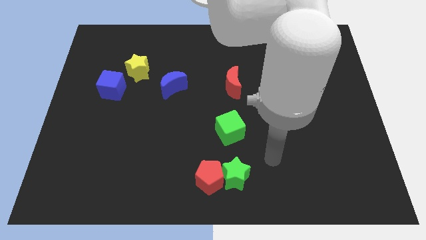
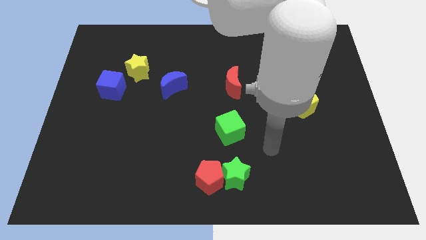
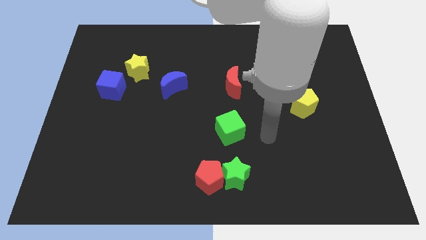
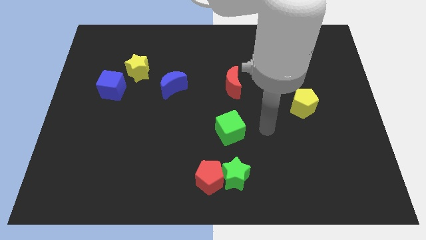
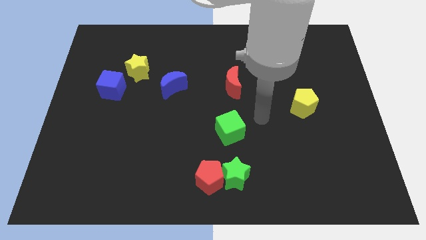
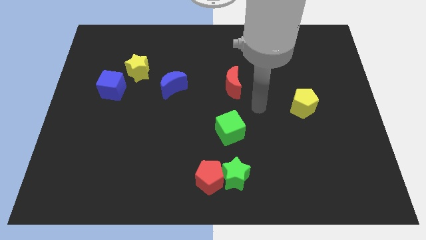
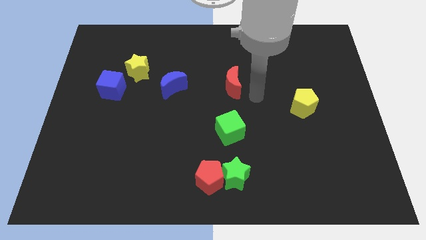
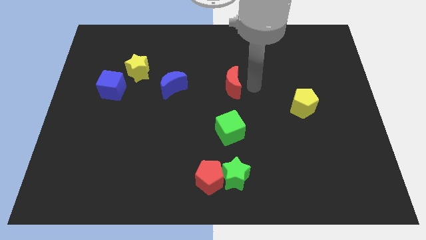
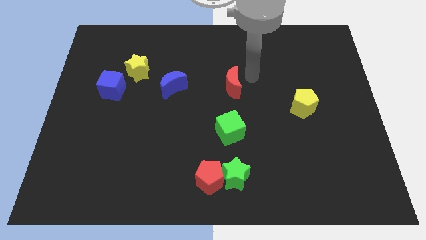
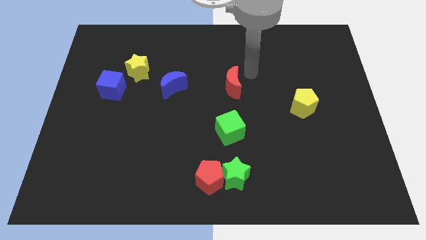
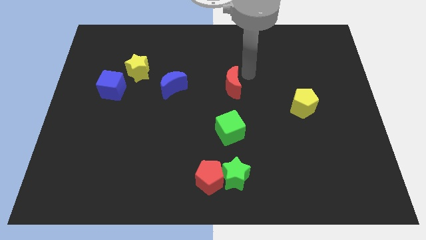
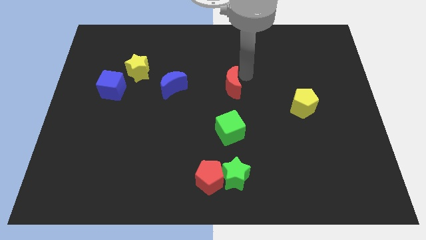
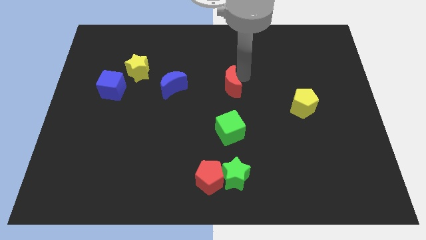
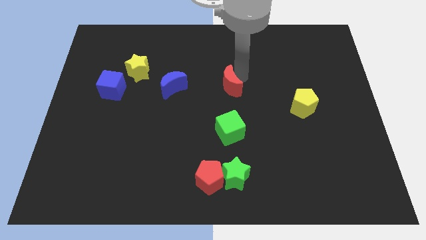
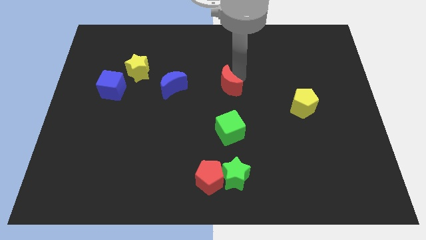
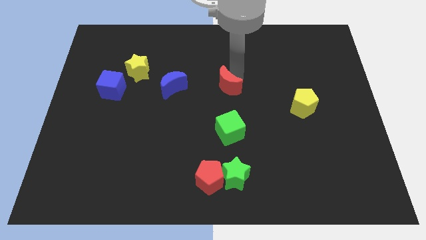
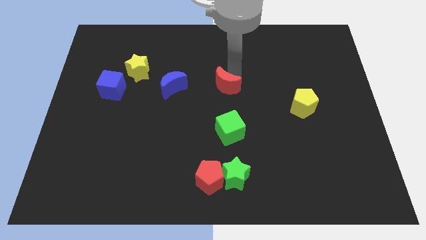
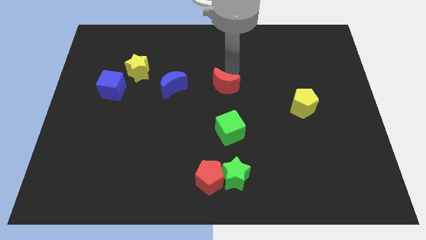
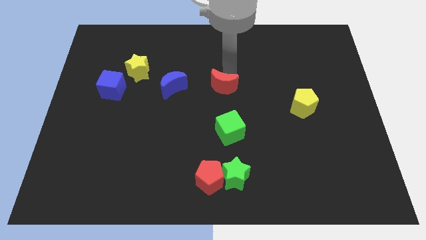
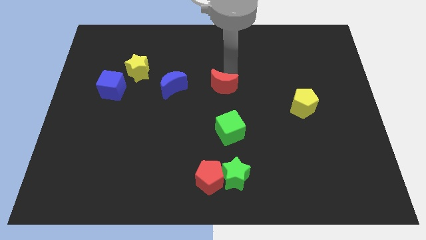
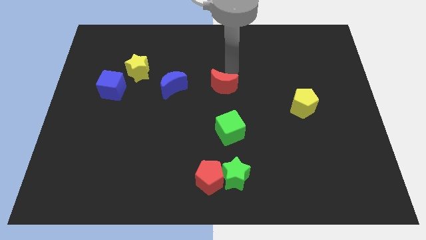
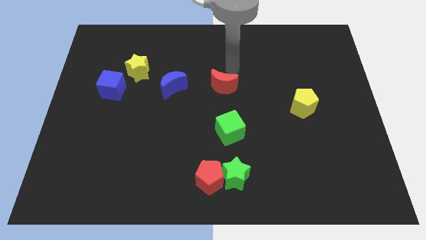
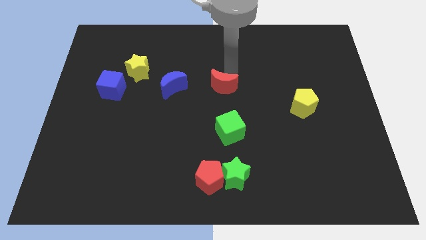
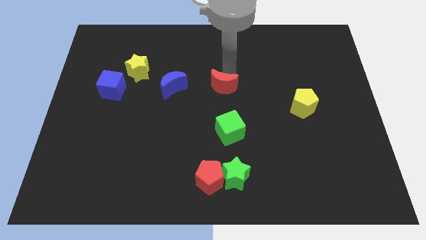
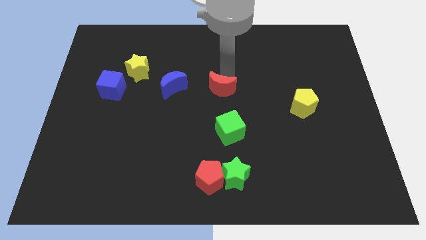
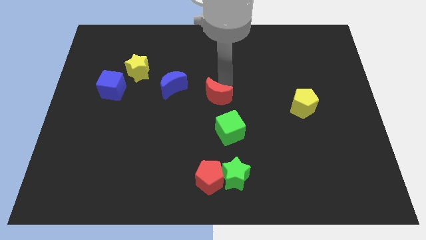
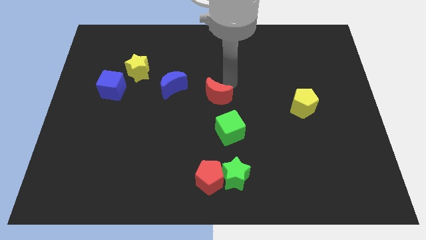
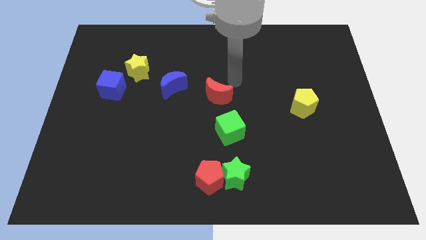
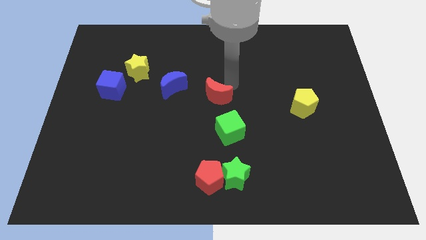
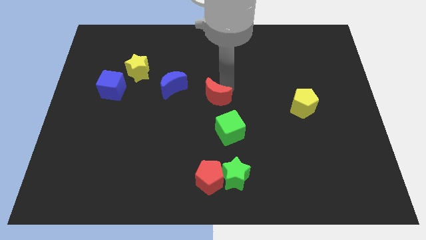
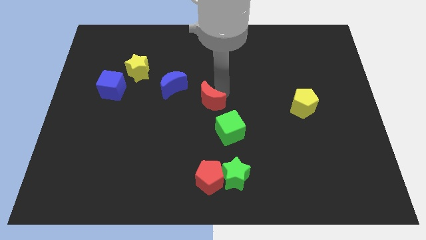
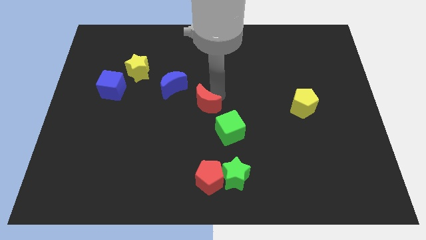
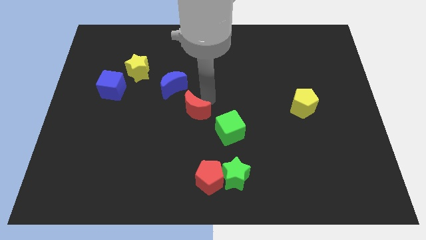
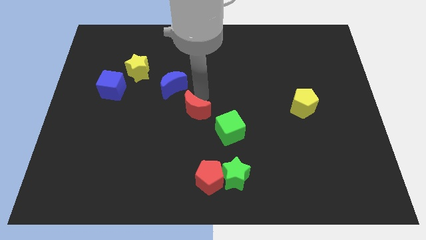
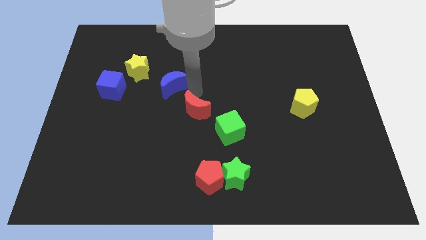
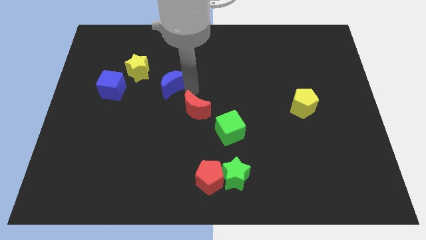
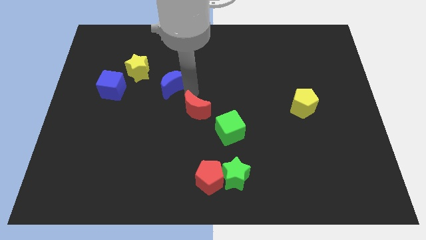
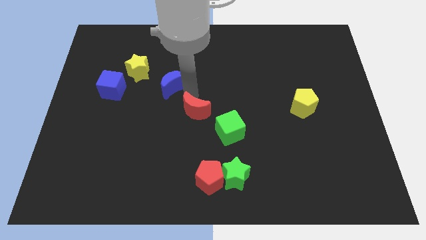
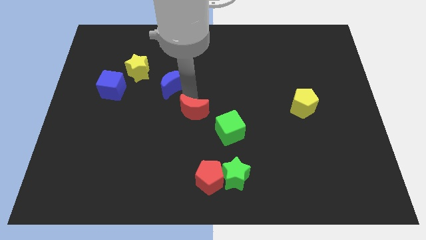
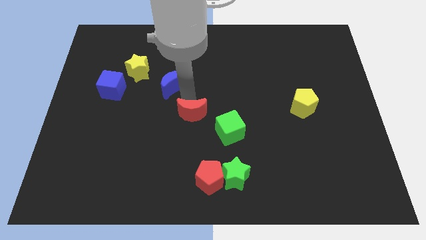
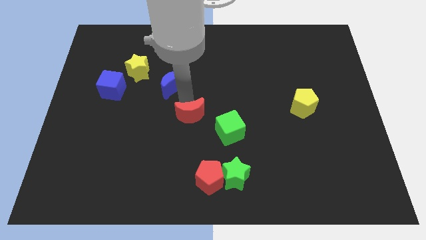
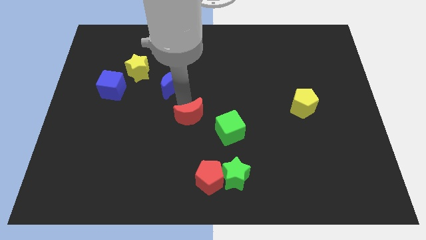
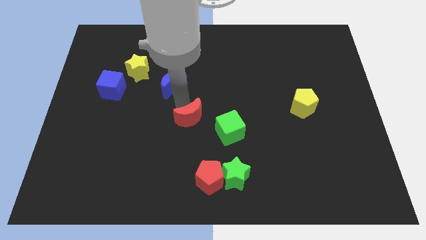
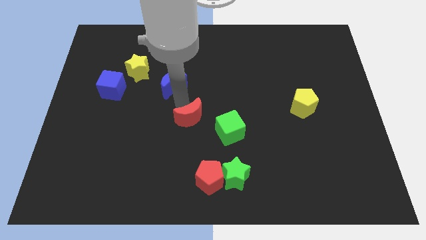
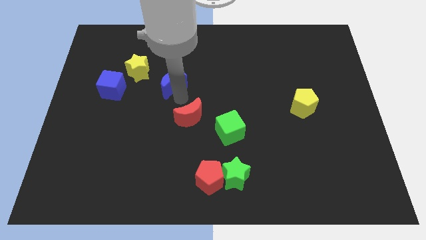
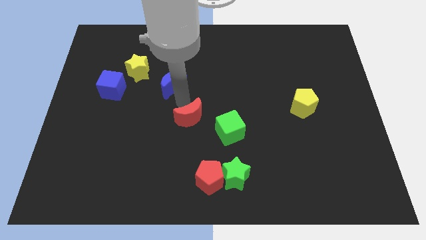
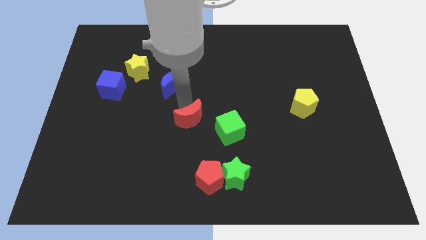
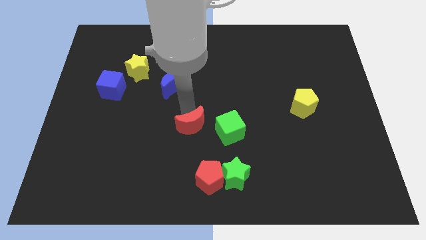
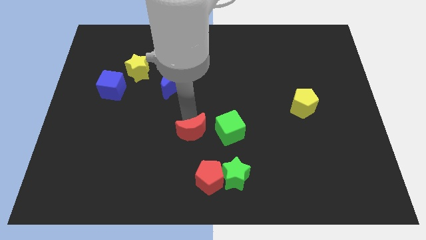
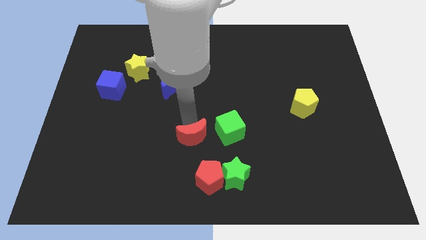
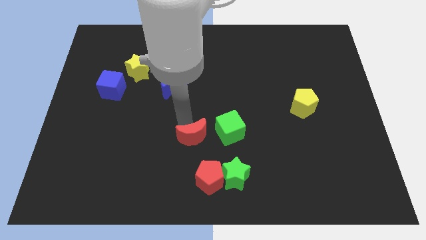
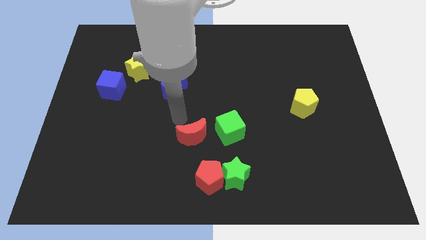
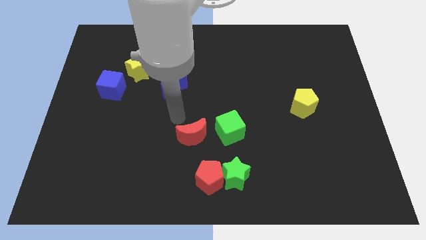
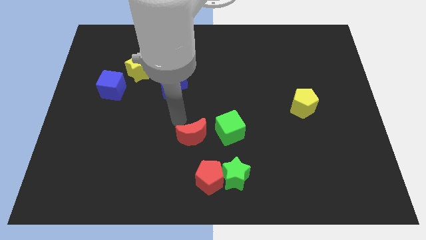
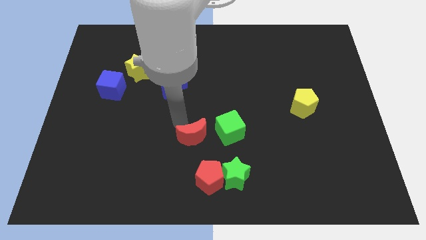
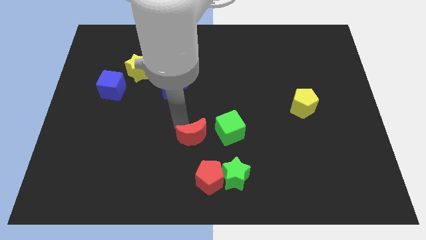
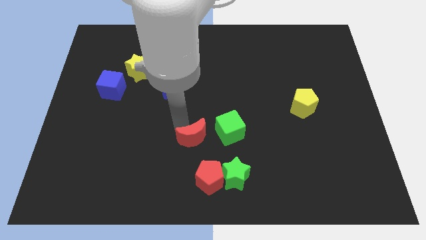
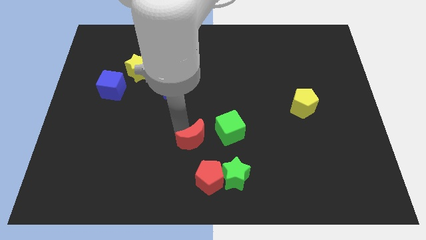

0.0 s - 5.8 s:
slide the red moon to the top left of the green star

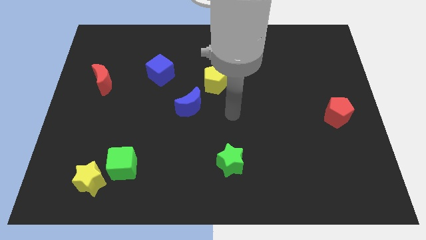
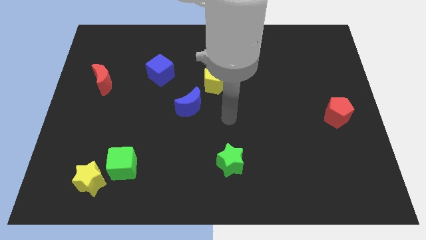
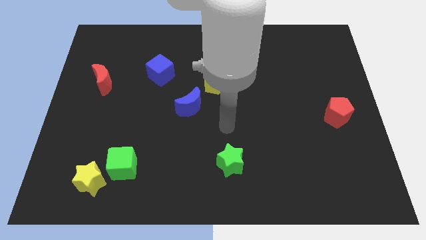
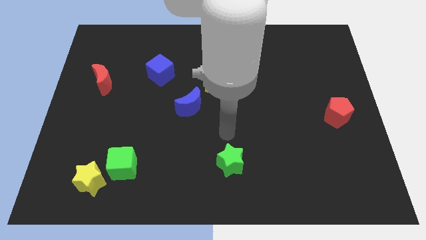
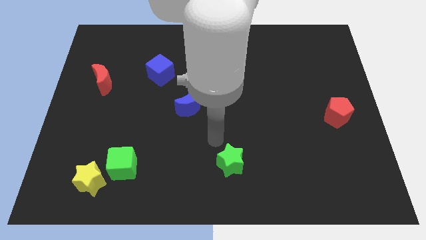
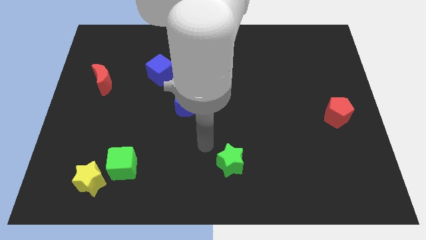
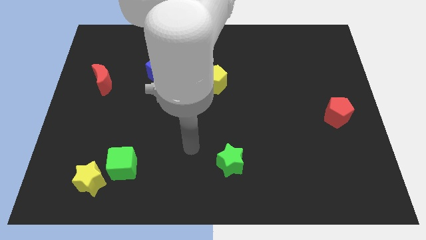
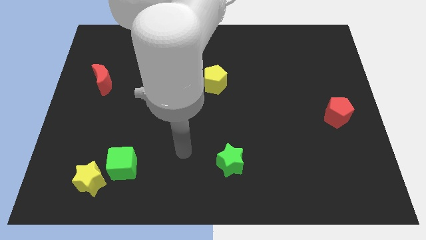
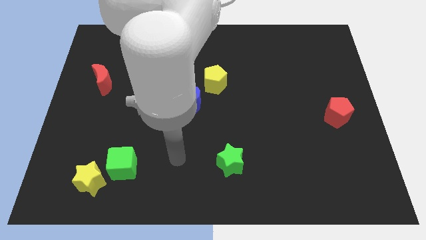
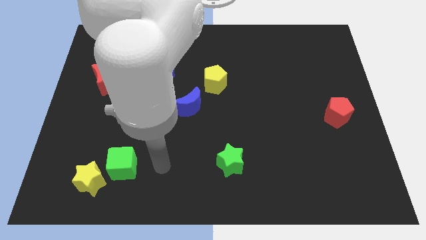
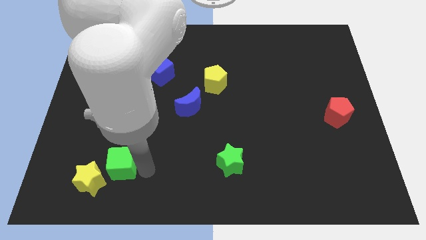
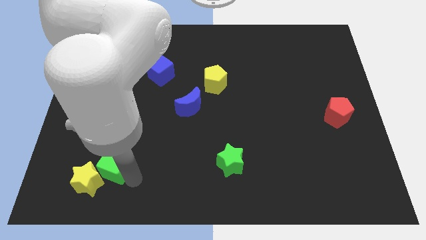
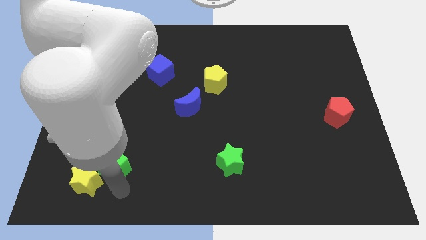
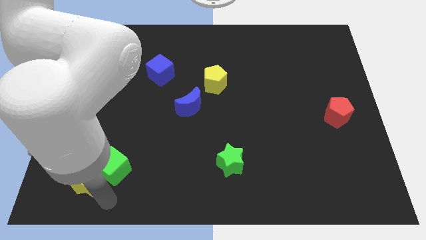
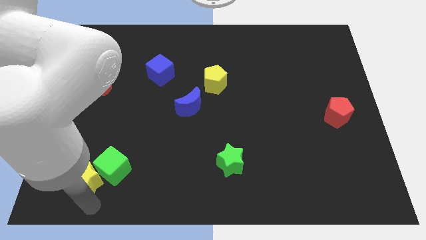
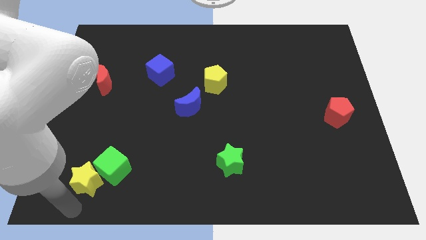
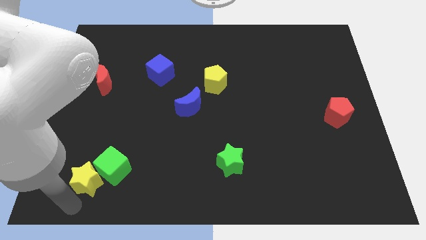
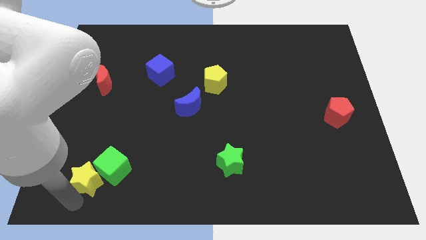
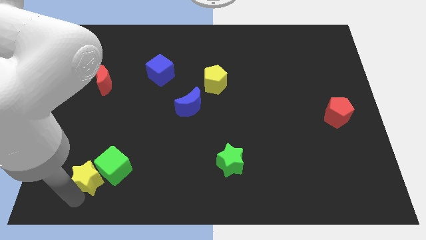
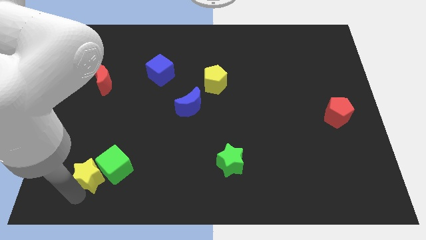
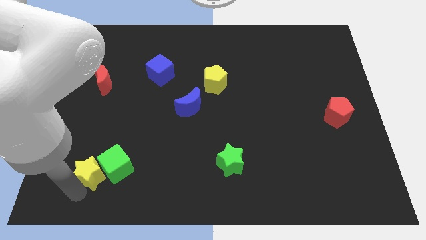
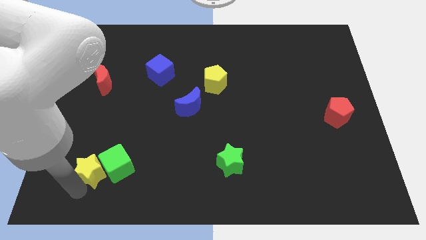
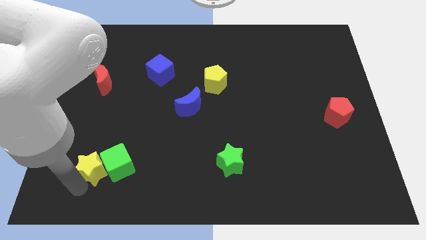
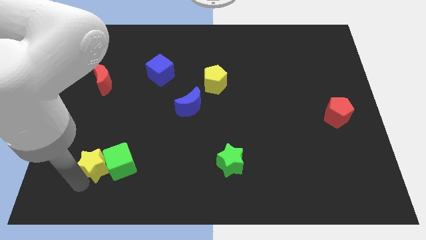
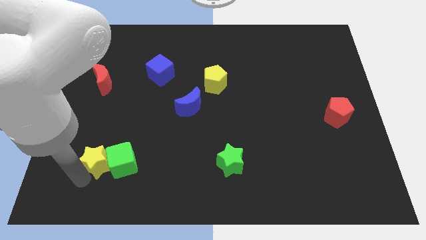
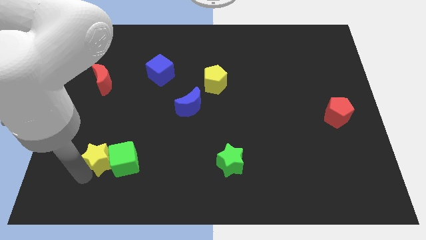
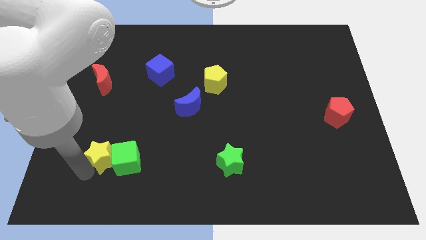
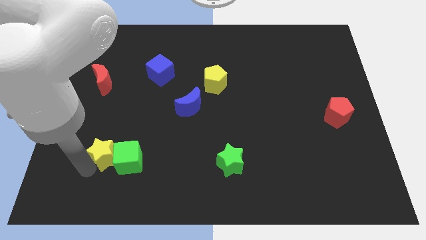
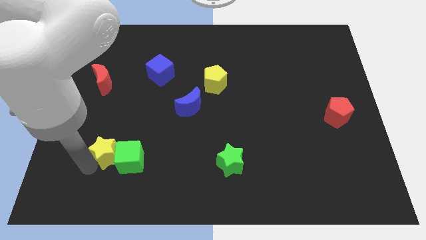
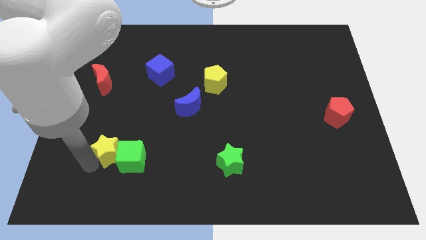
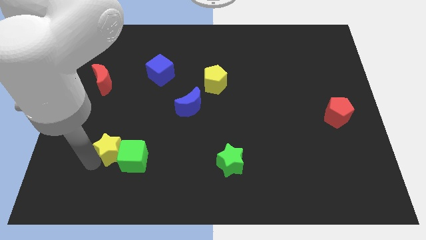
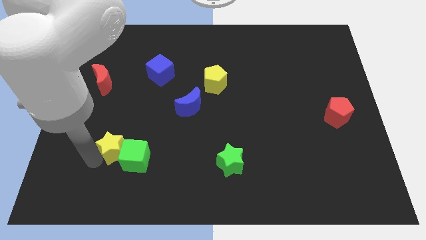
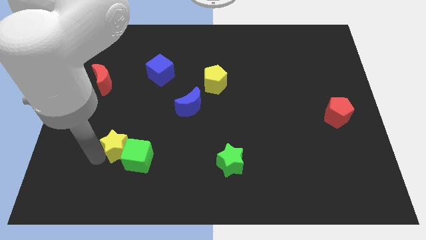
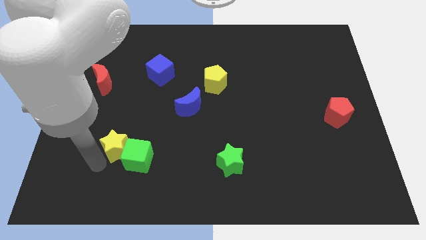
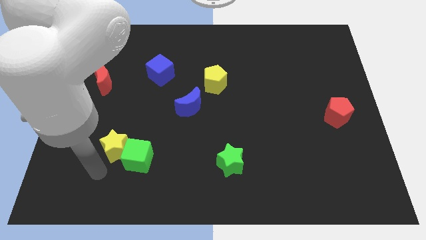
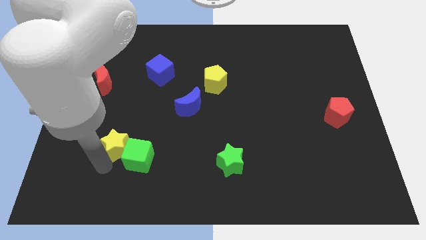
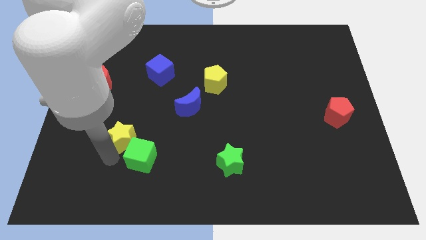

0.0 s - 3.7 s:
push the yellow star to the top side of the green cube
